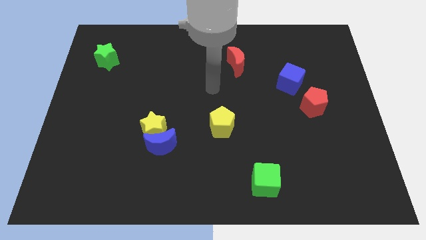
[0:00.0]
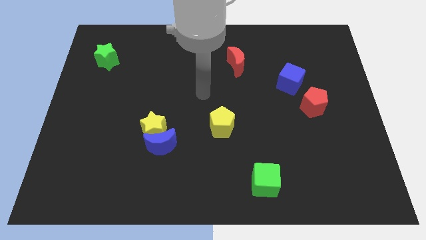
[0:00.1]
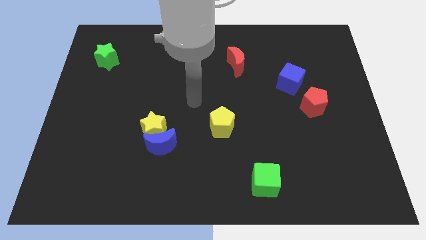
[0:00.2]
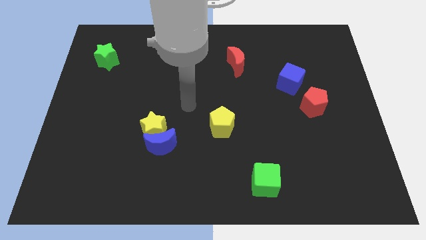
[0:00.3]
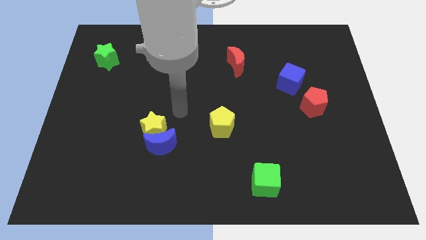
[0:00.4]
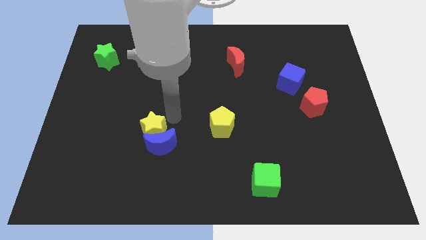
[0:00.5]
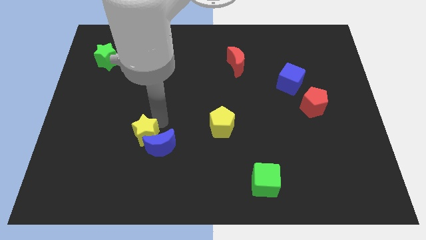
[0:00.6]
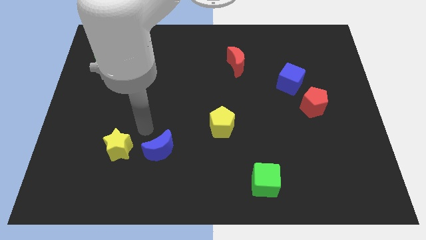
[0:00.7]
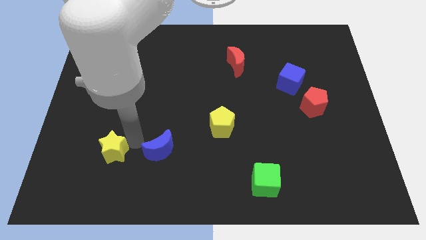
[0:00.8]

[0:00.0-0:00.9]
pull the blue moon apart from the yellow star

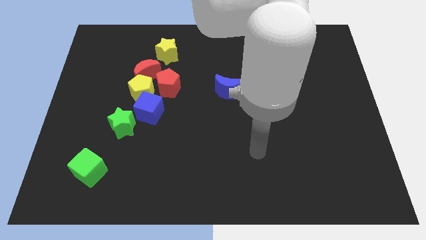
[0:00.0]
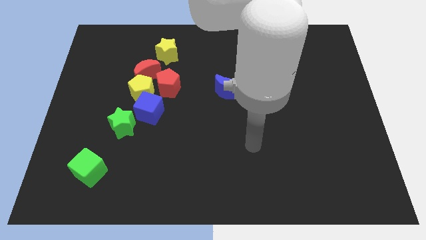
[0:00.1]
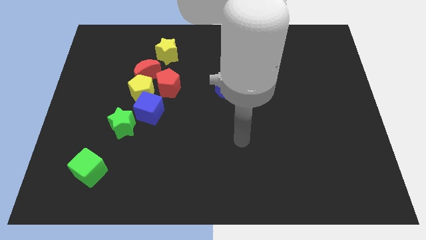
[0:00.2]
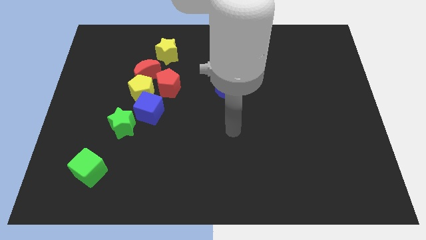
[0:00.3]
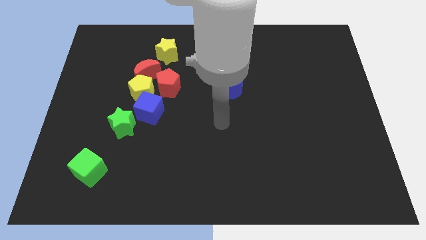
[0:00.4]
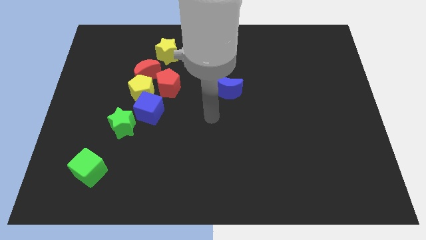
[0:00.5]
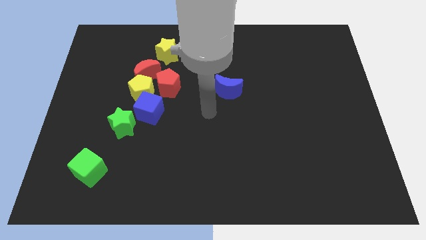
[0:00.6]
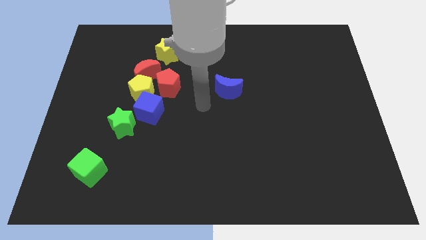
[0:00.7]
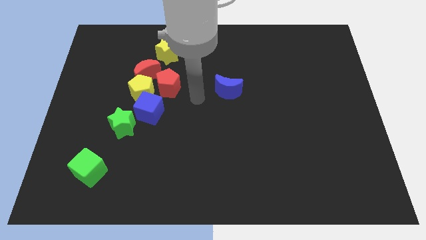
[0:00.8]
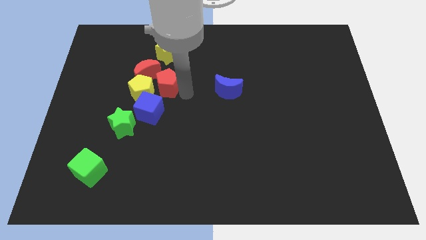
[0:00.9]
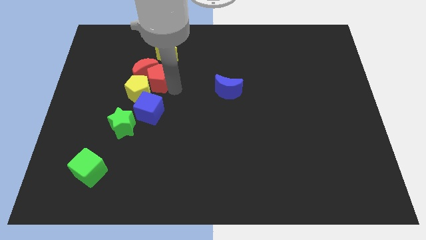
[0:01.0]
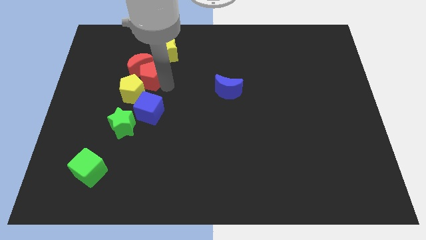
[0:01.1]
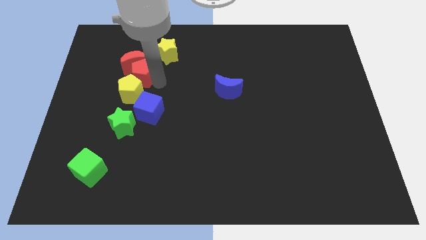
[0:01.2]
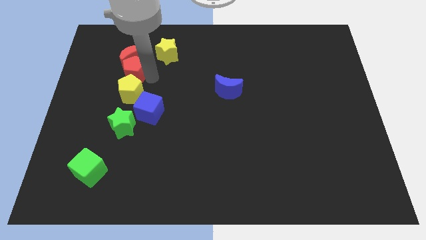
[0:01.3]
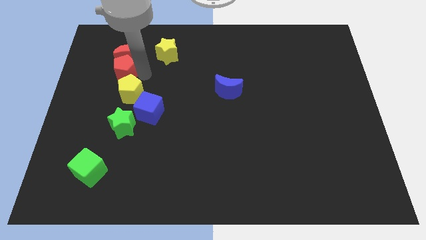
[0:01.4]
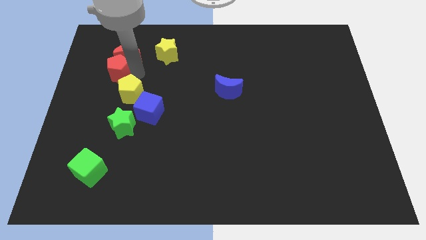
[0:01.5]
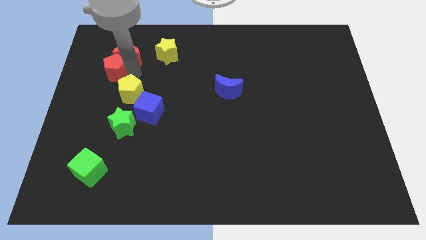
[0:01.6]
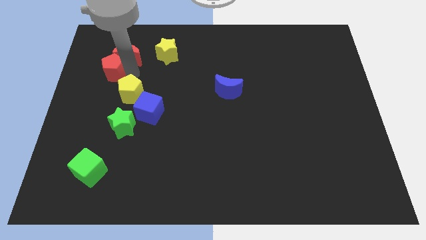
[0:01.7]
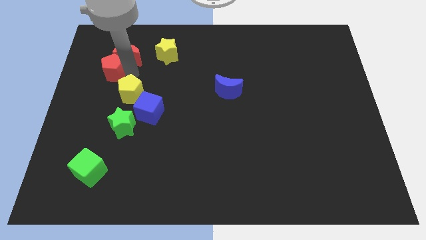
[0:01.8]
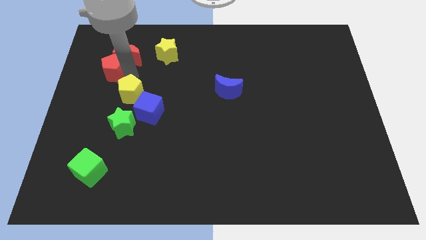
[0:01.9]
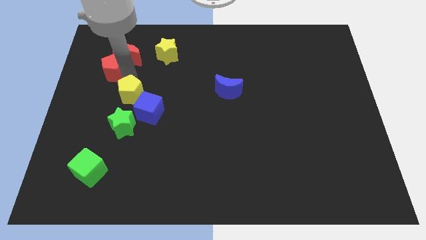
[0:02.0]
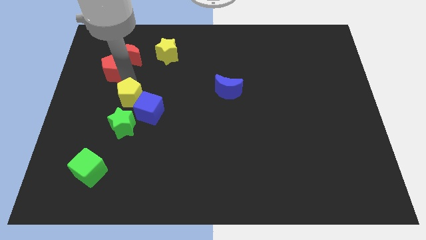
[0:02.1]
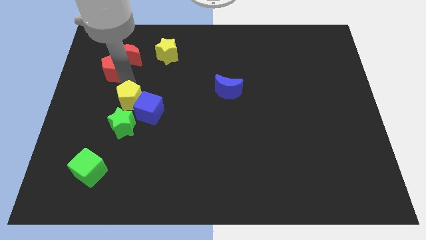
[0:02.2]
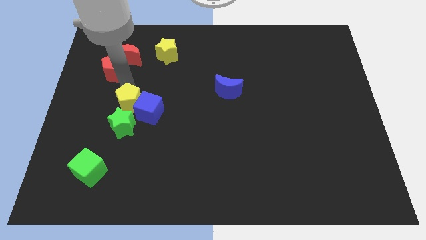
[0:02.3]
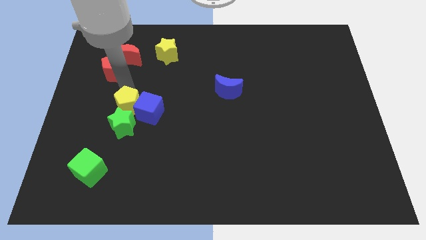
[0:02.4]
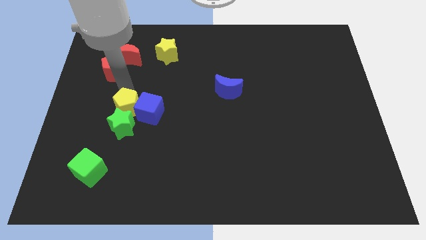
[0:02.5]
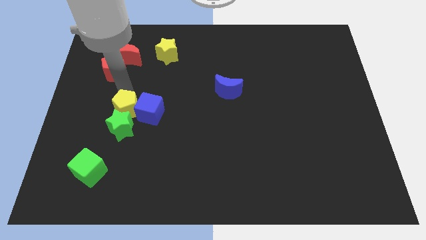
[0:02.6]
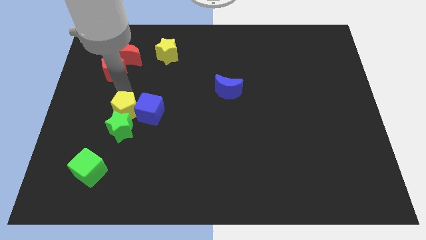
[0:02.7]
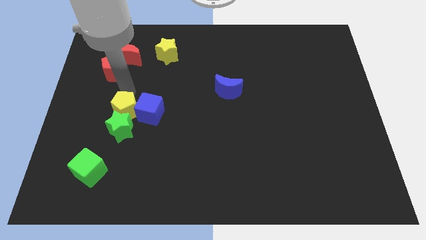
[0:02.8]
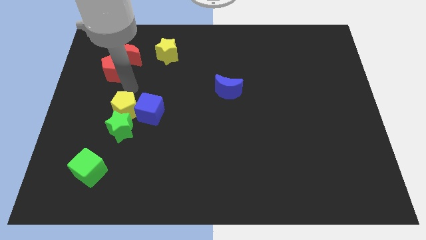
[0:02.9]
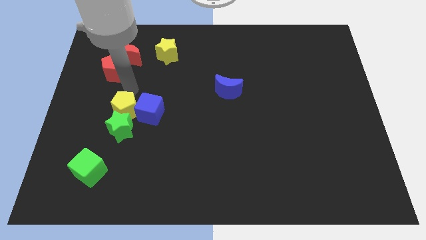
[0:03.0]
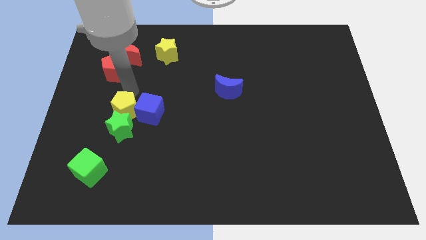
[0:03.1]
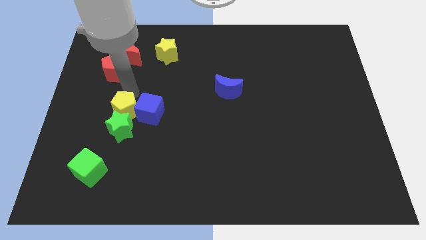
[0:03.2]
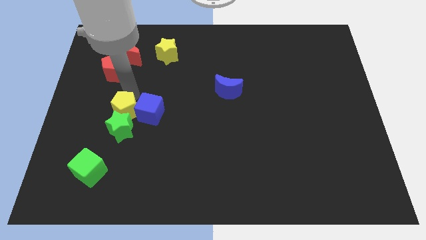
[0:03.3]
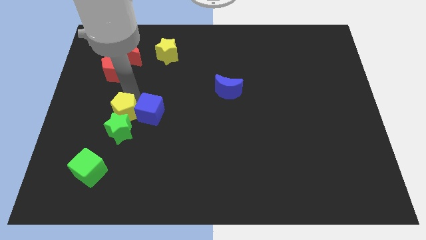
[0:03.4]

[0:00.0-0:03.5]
pull the yellow pentagon apart from the blue cube, red moon, and red pentagon

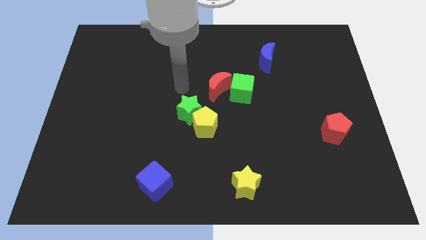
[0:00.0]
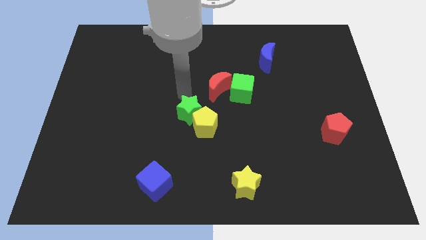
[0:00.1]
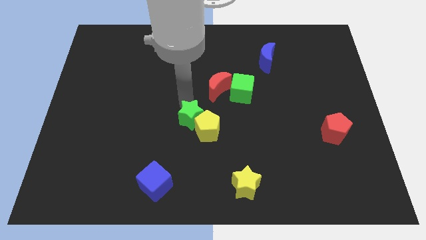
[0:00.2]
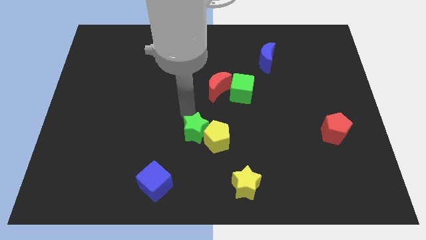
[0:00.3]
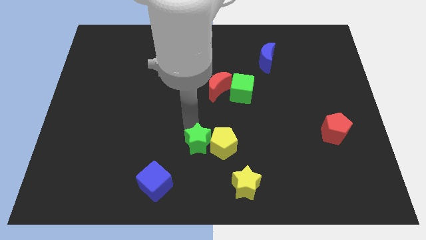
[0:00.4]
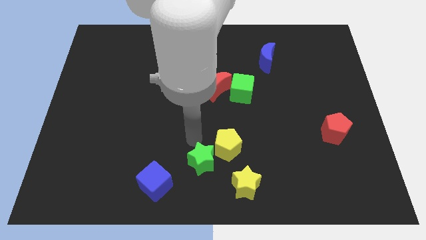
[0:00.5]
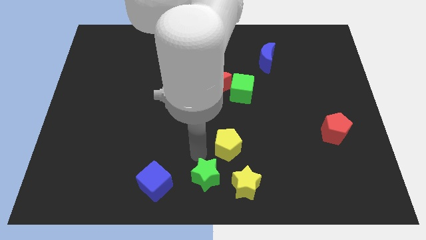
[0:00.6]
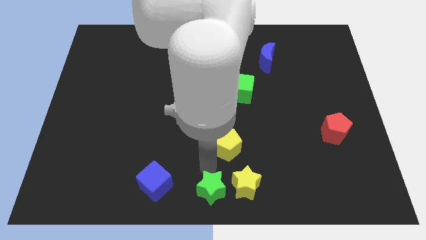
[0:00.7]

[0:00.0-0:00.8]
separate the yellow pentagon from the green star

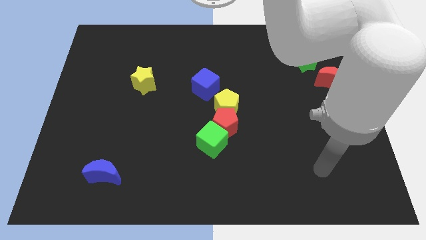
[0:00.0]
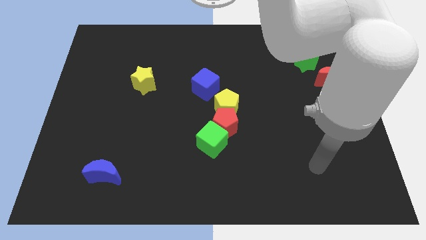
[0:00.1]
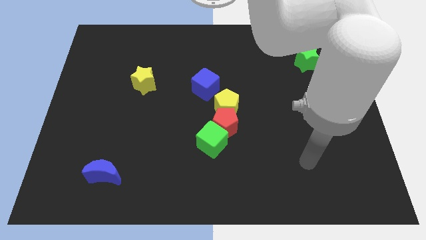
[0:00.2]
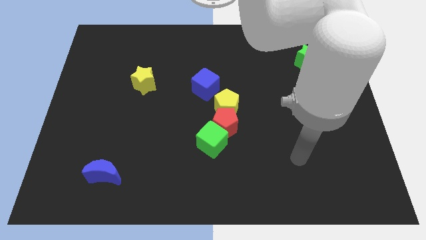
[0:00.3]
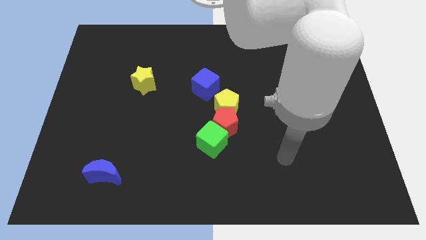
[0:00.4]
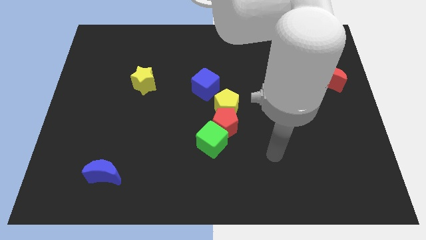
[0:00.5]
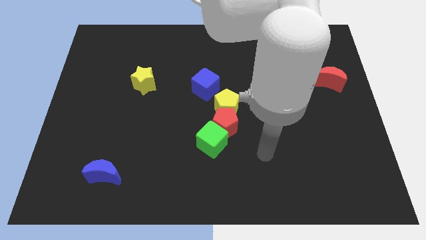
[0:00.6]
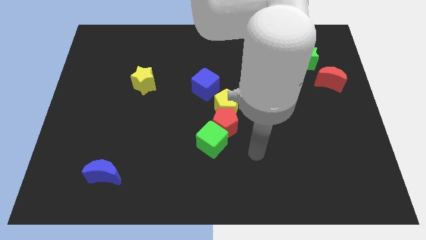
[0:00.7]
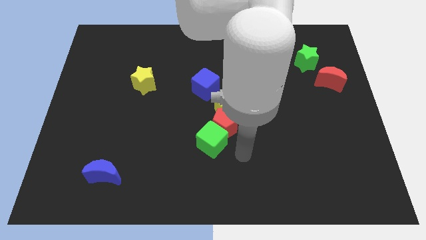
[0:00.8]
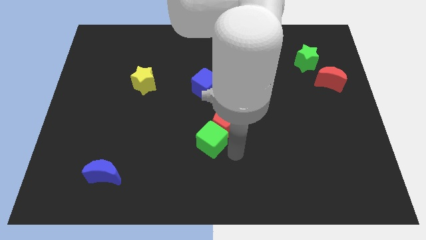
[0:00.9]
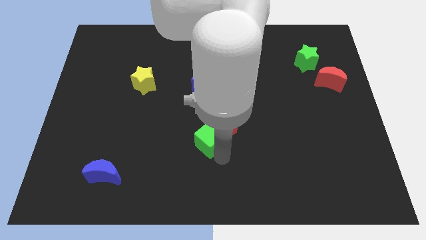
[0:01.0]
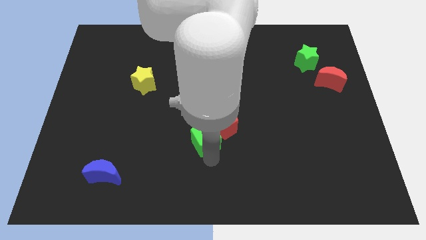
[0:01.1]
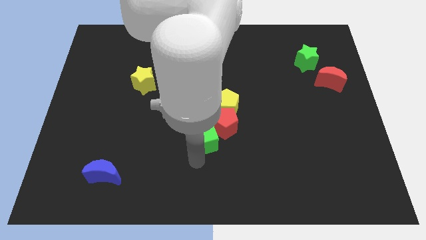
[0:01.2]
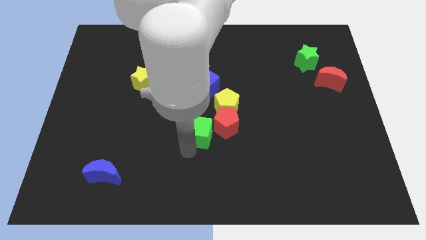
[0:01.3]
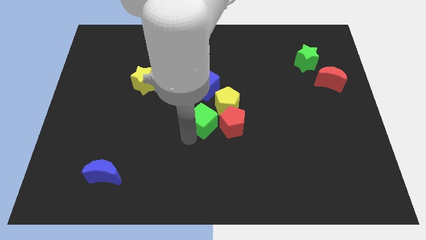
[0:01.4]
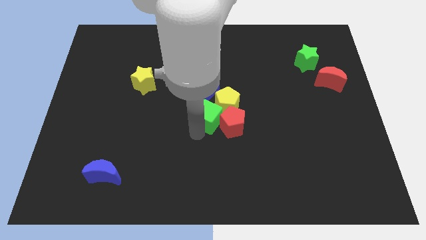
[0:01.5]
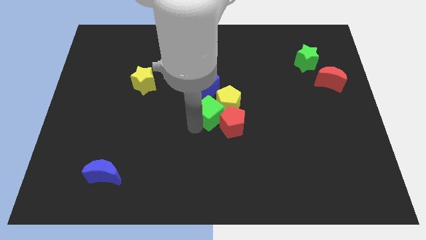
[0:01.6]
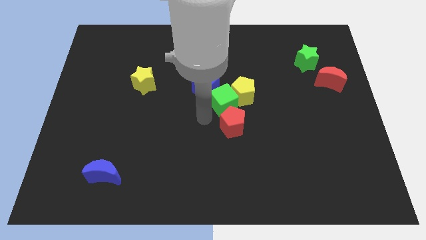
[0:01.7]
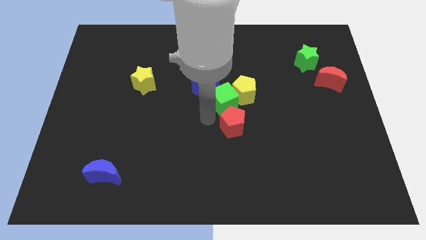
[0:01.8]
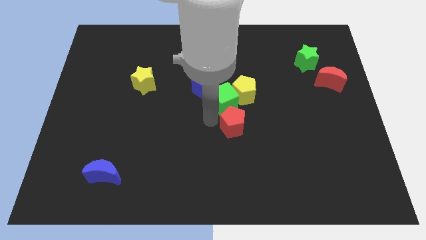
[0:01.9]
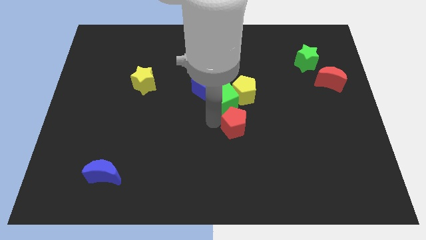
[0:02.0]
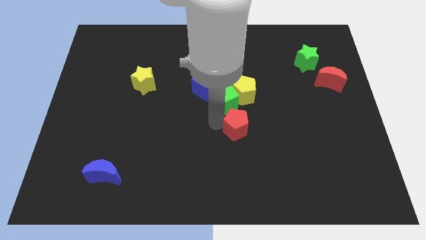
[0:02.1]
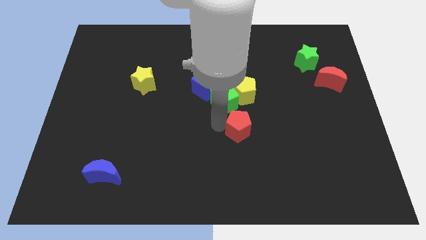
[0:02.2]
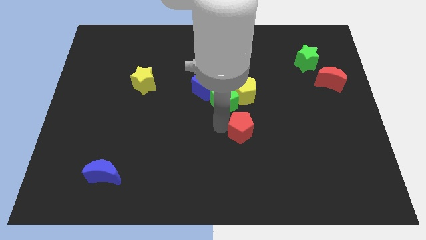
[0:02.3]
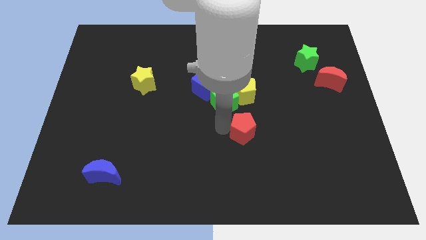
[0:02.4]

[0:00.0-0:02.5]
move the red pentagon away from the green cube and yellow pentagon

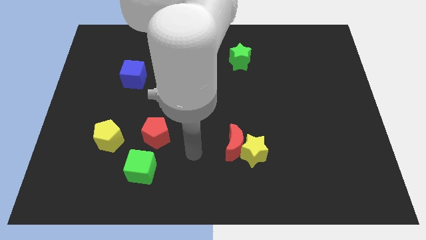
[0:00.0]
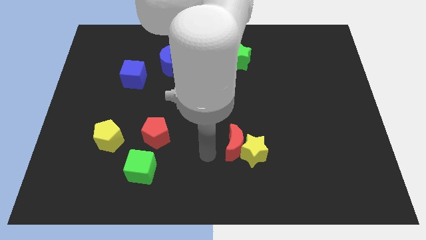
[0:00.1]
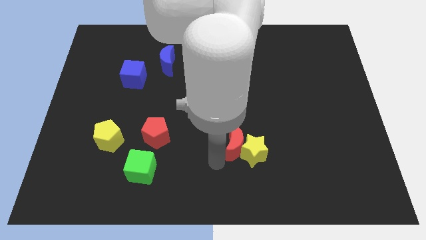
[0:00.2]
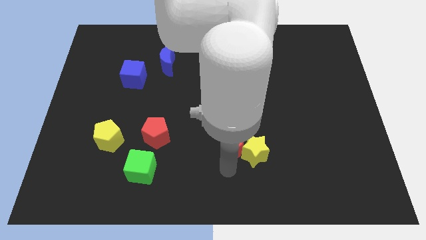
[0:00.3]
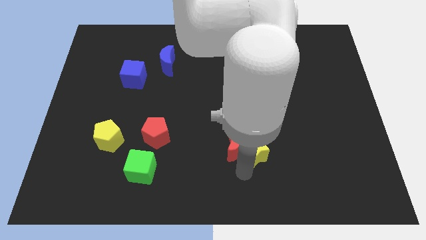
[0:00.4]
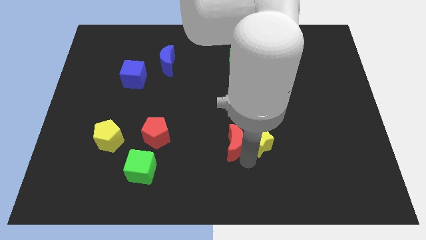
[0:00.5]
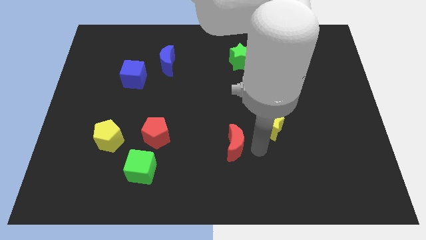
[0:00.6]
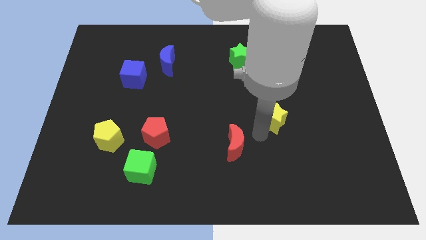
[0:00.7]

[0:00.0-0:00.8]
pull the red moon apart from the yellow star

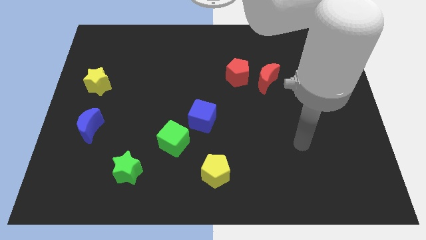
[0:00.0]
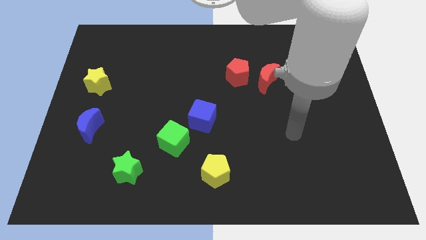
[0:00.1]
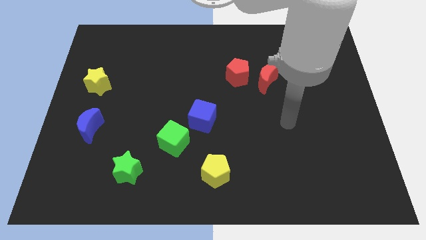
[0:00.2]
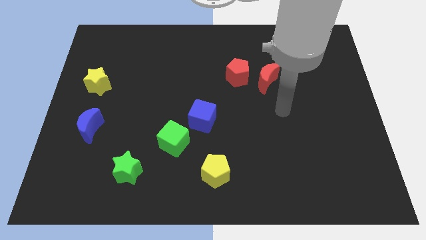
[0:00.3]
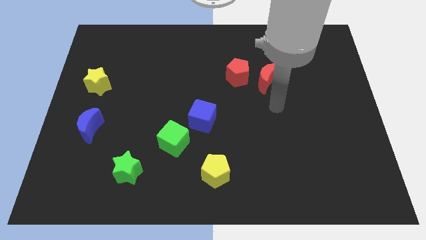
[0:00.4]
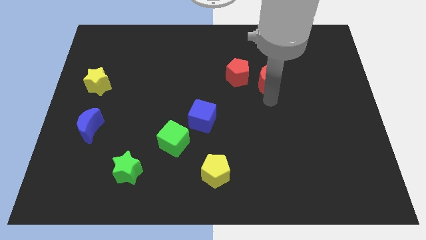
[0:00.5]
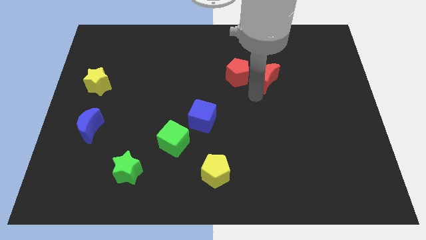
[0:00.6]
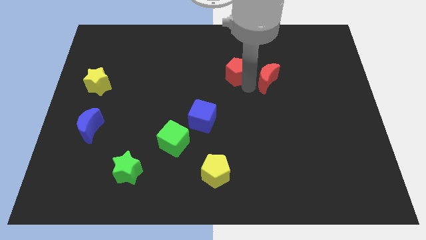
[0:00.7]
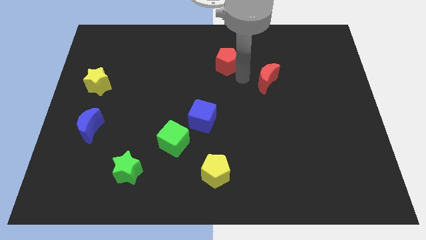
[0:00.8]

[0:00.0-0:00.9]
move the red moon away from the red pentagon
